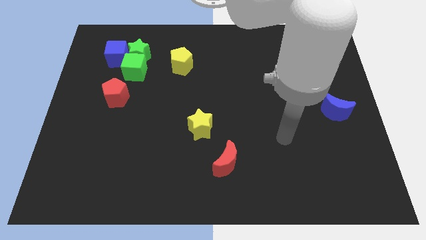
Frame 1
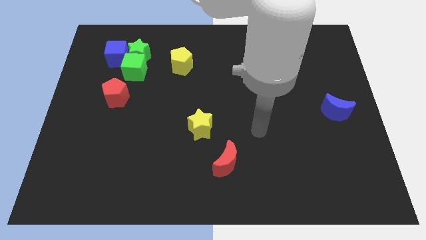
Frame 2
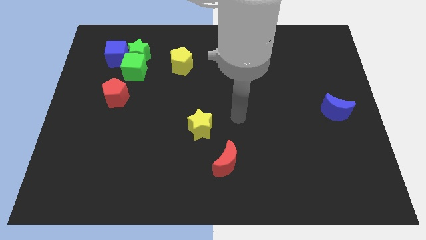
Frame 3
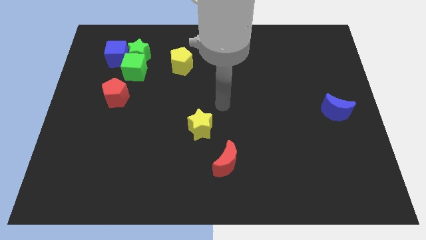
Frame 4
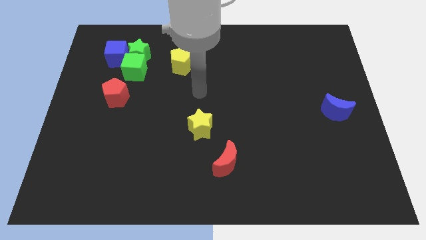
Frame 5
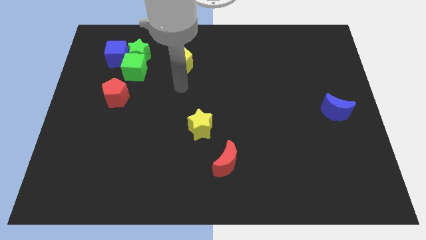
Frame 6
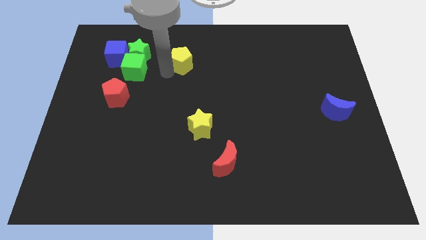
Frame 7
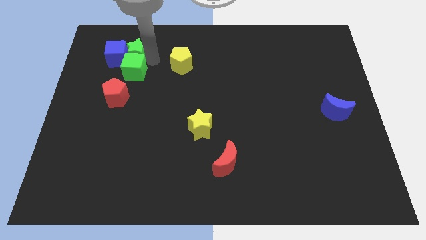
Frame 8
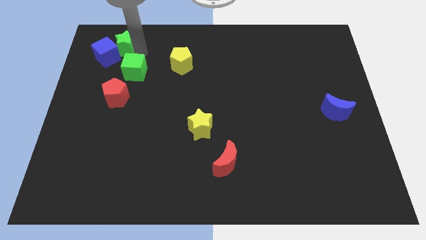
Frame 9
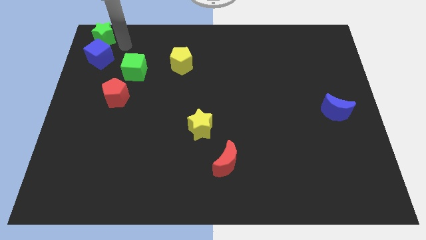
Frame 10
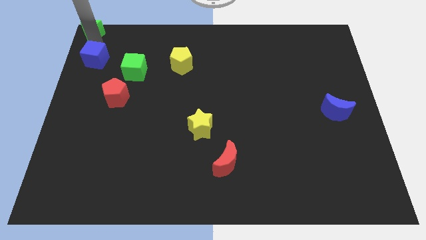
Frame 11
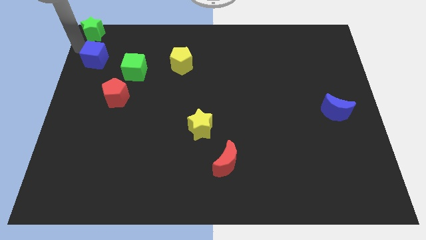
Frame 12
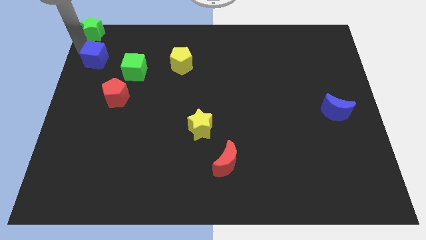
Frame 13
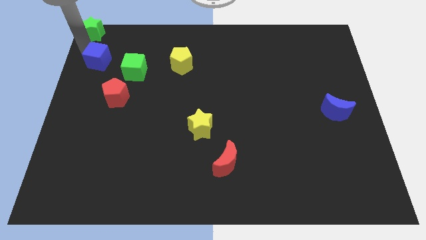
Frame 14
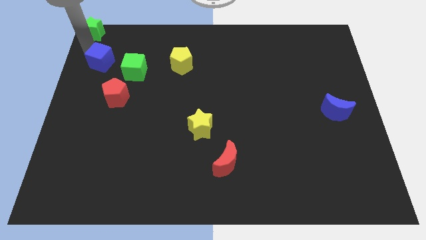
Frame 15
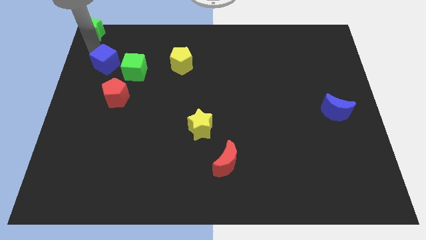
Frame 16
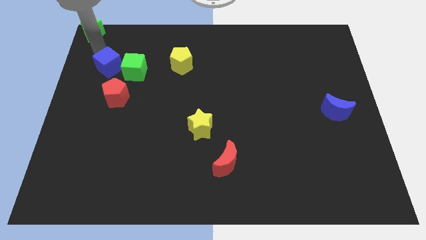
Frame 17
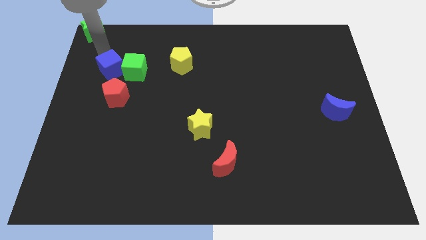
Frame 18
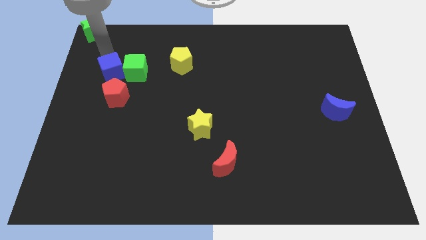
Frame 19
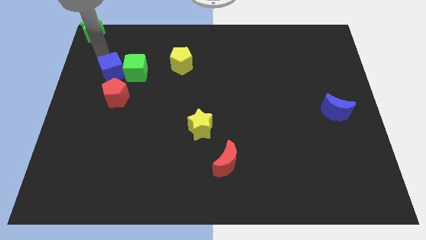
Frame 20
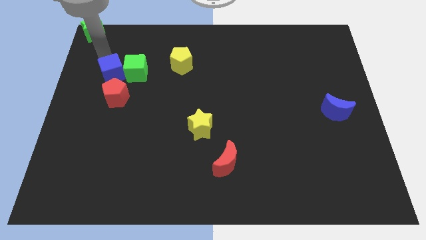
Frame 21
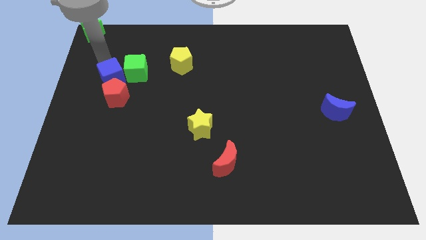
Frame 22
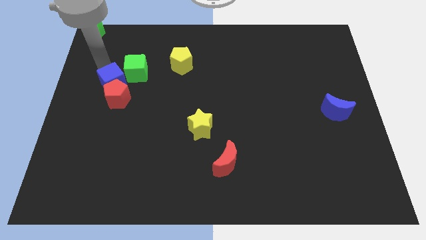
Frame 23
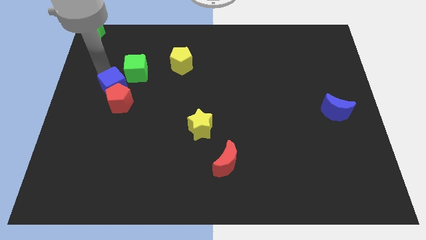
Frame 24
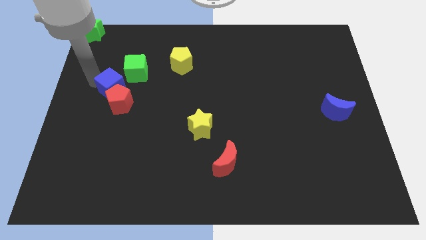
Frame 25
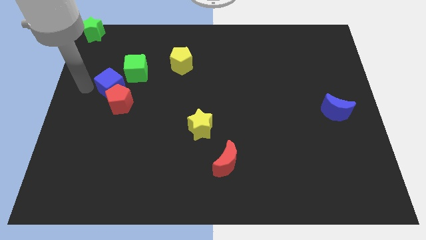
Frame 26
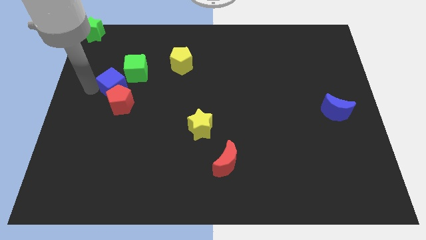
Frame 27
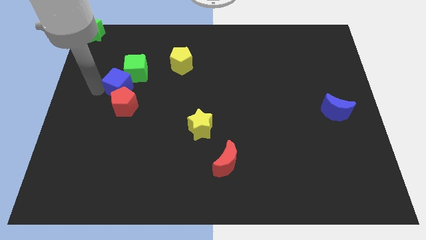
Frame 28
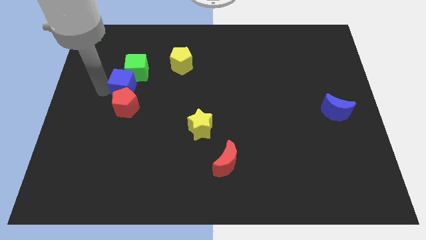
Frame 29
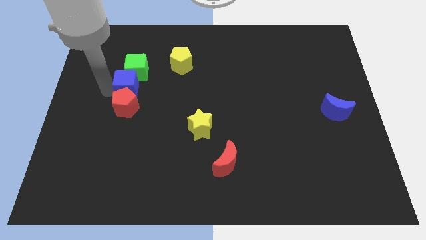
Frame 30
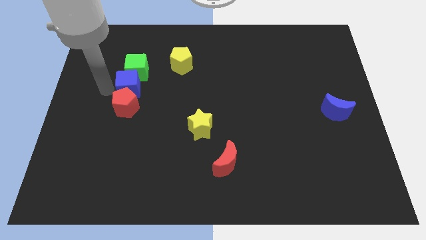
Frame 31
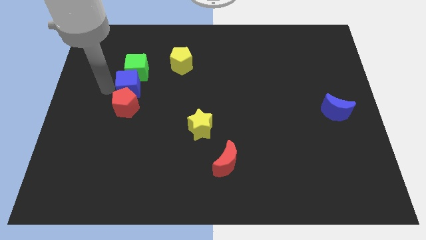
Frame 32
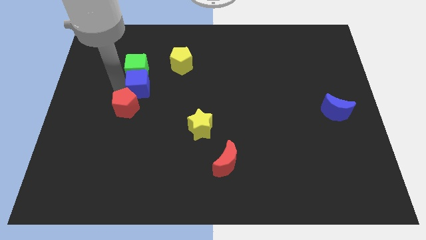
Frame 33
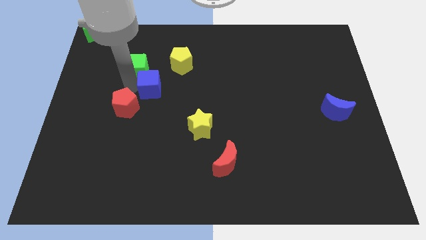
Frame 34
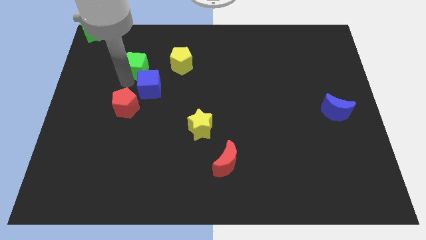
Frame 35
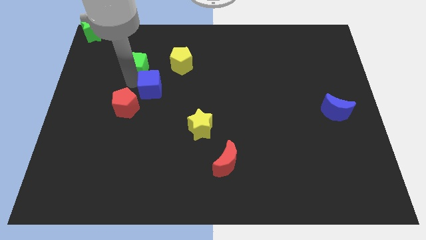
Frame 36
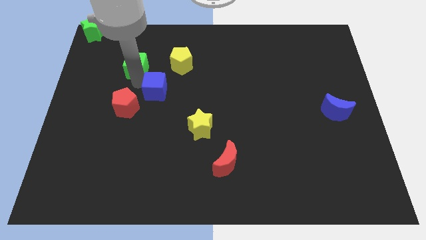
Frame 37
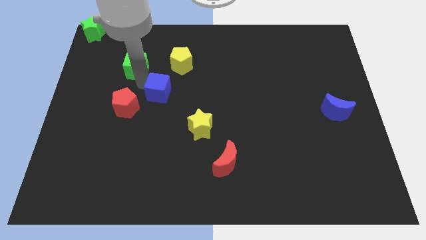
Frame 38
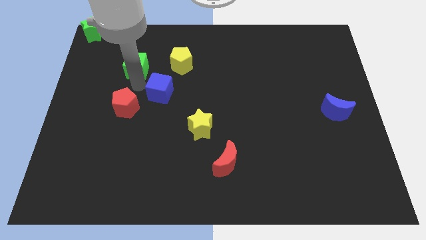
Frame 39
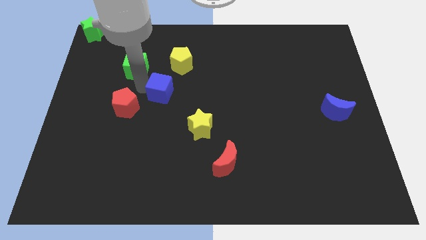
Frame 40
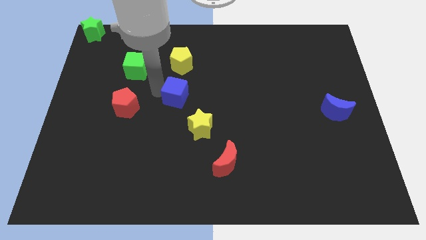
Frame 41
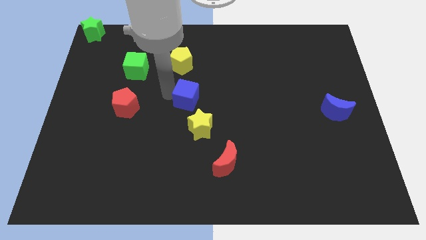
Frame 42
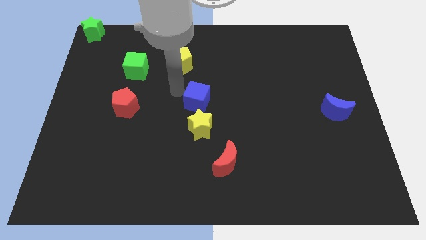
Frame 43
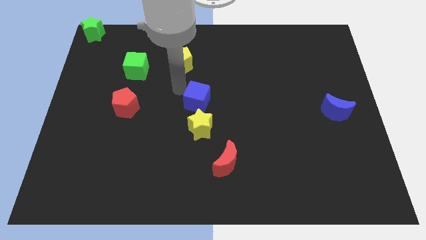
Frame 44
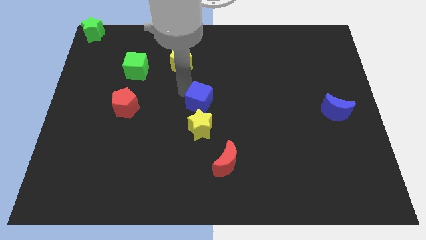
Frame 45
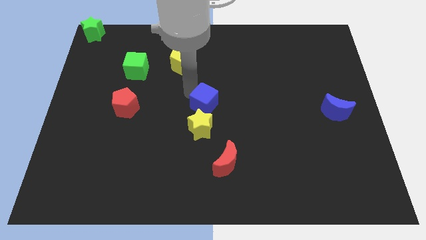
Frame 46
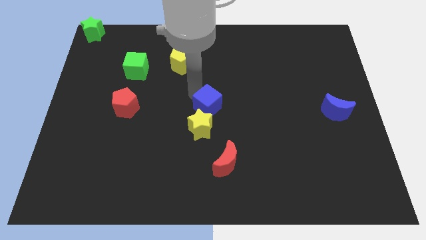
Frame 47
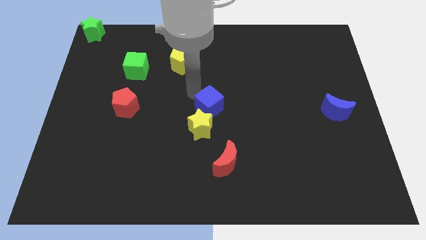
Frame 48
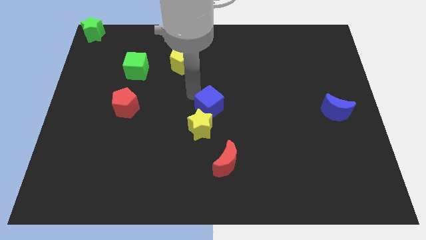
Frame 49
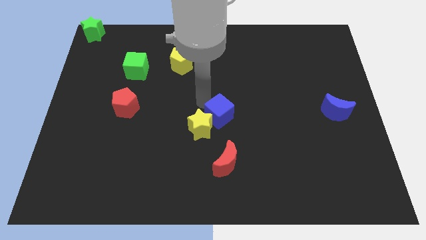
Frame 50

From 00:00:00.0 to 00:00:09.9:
move the blue cube to the right of the yellow star

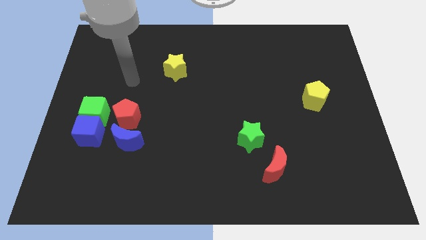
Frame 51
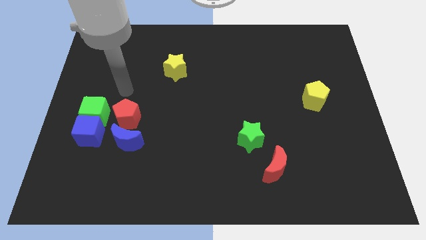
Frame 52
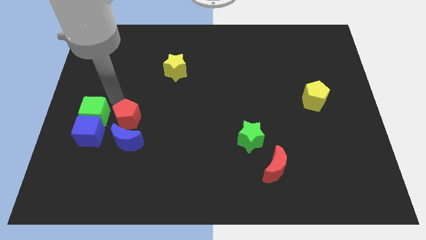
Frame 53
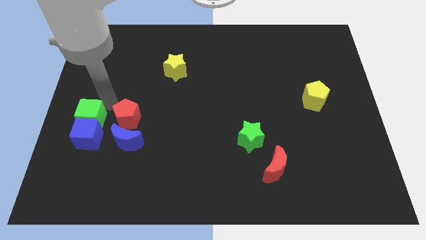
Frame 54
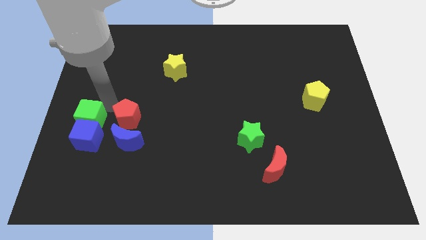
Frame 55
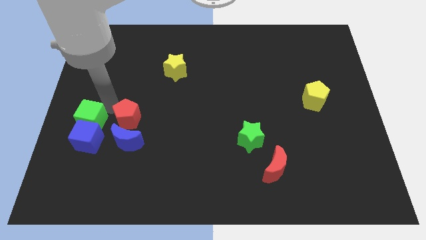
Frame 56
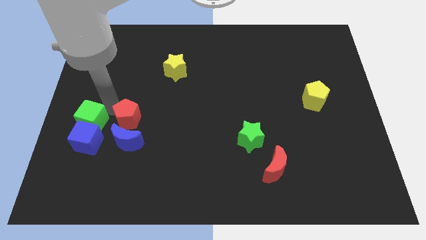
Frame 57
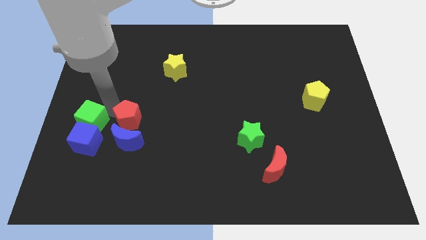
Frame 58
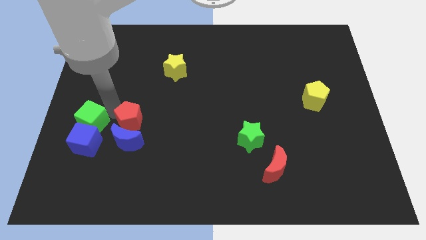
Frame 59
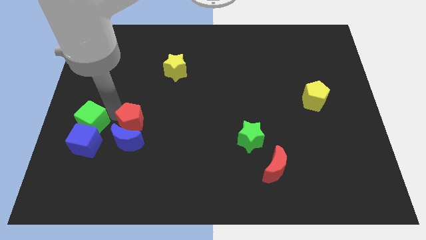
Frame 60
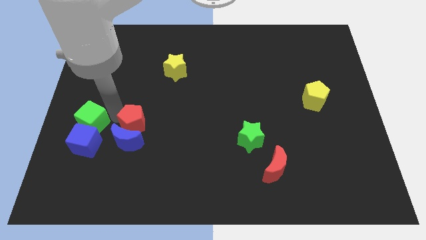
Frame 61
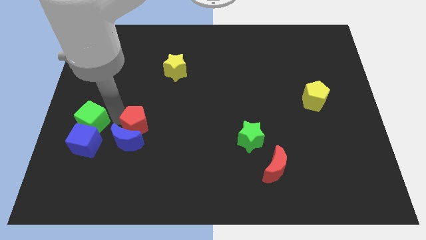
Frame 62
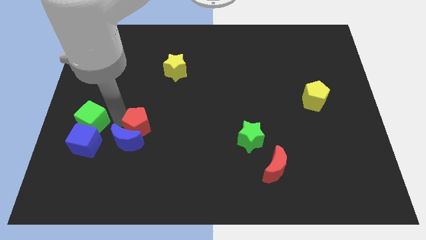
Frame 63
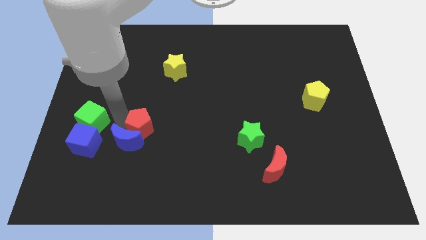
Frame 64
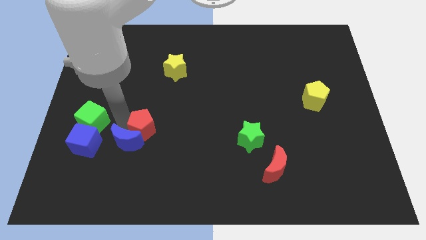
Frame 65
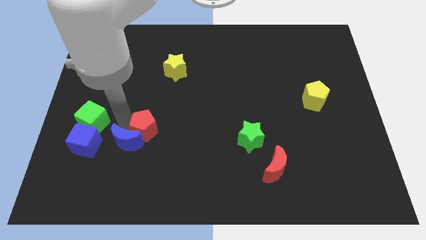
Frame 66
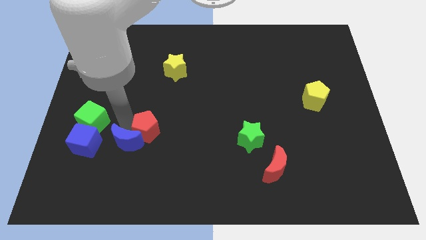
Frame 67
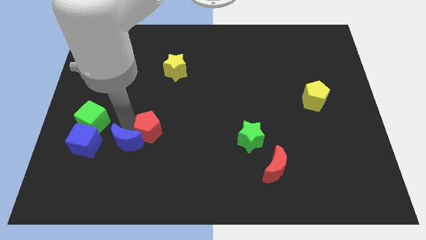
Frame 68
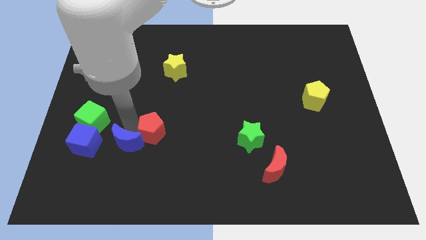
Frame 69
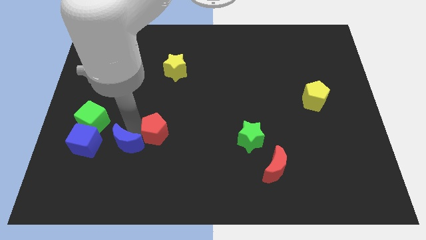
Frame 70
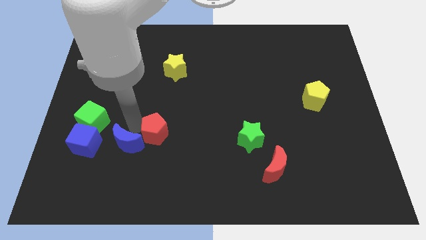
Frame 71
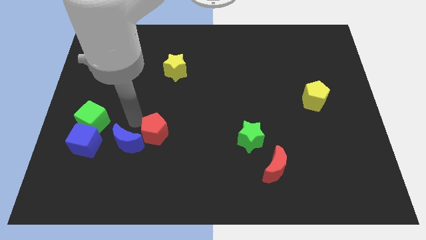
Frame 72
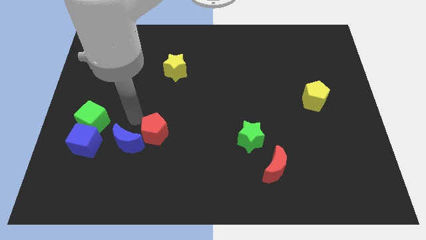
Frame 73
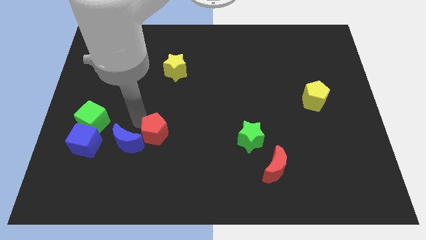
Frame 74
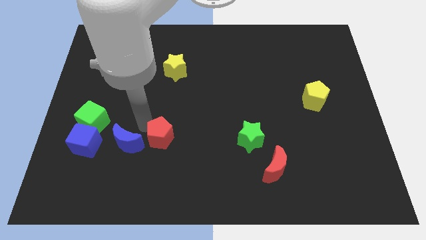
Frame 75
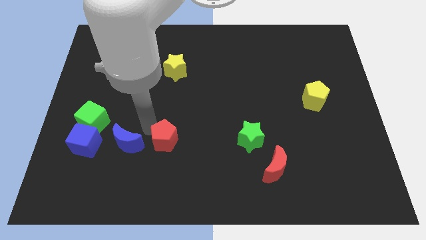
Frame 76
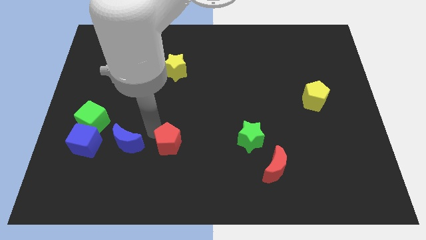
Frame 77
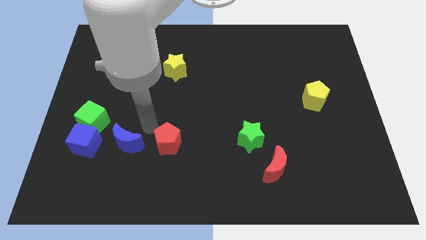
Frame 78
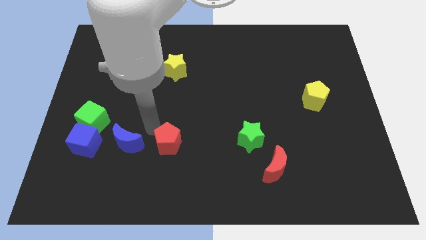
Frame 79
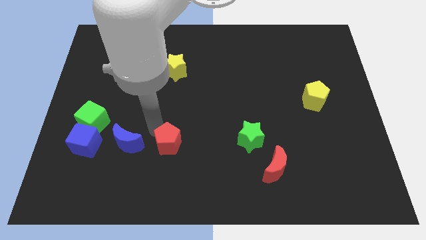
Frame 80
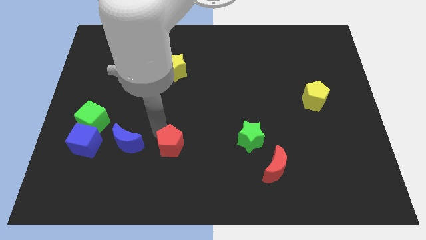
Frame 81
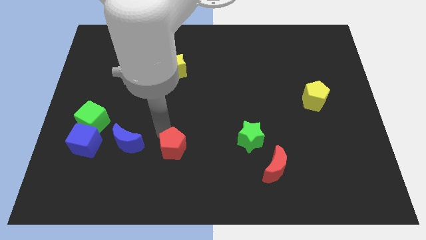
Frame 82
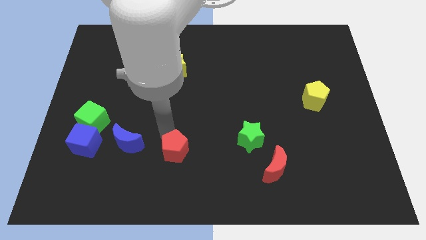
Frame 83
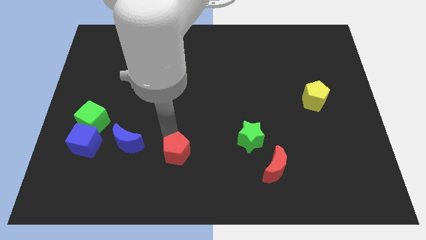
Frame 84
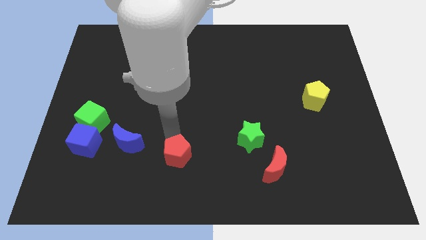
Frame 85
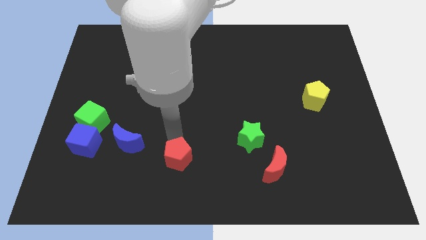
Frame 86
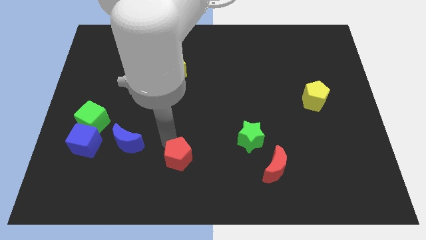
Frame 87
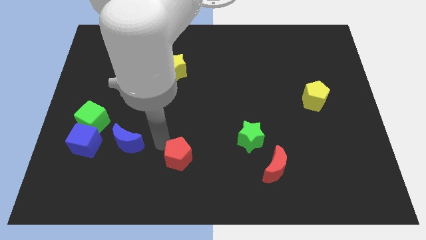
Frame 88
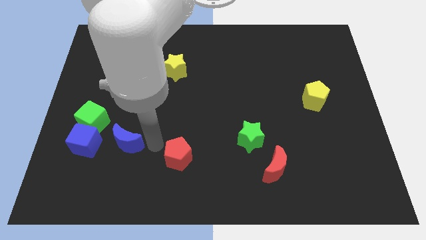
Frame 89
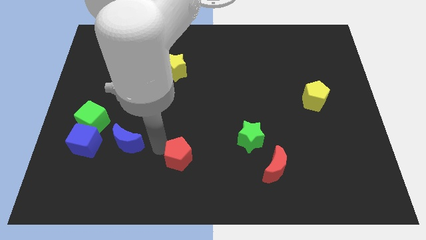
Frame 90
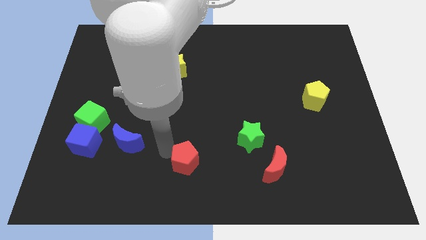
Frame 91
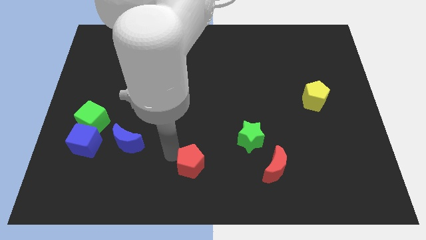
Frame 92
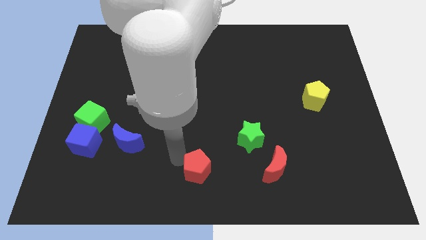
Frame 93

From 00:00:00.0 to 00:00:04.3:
move the red pentagon left of the red moon
